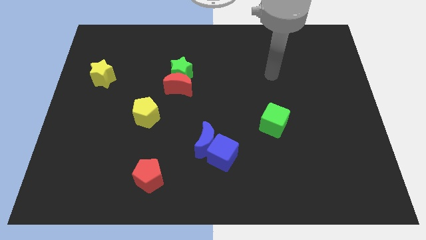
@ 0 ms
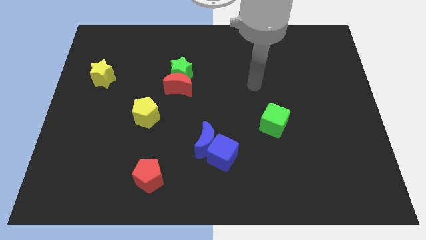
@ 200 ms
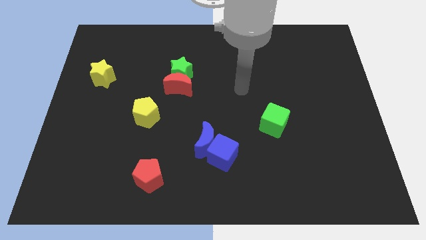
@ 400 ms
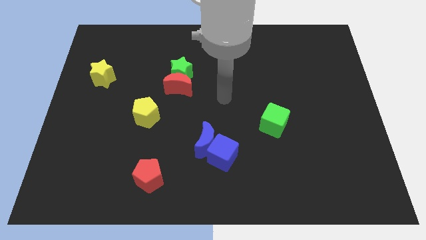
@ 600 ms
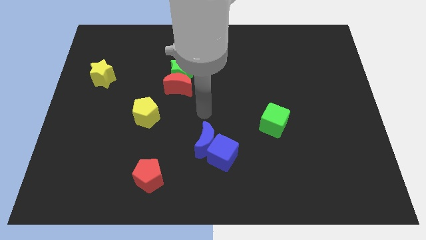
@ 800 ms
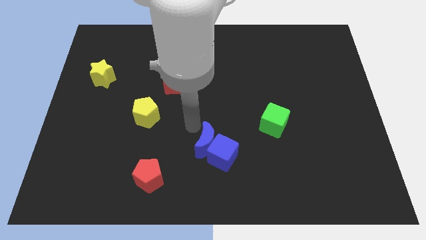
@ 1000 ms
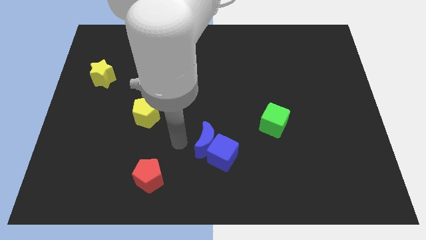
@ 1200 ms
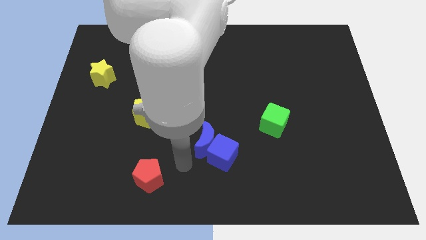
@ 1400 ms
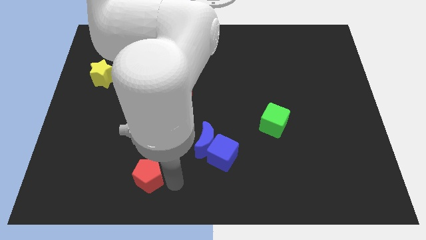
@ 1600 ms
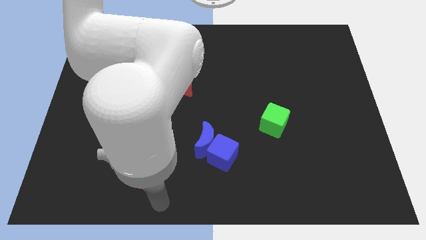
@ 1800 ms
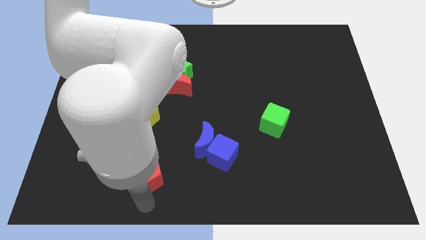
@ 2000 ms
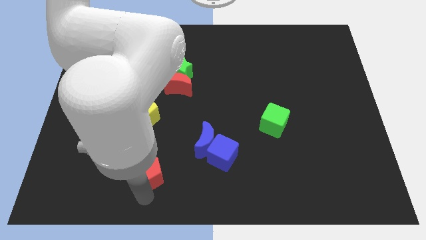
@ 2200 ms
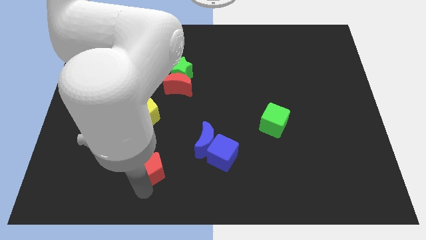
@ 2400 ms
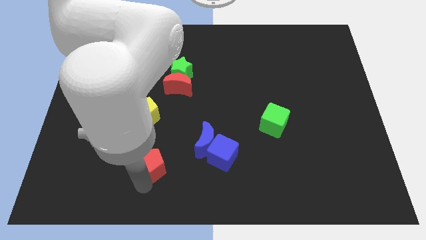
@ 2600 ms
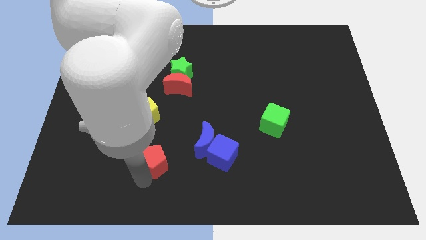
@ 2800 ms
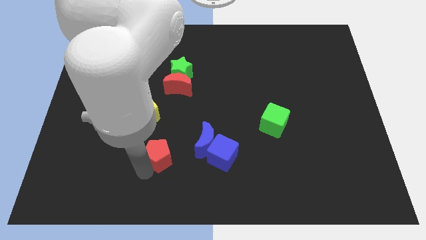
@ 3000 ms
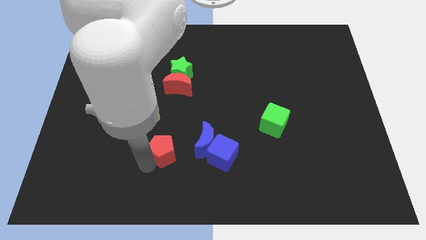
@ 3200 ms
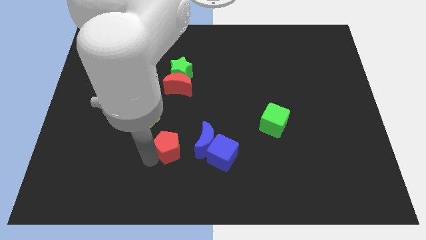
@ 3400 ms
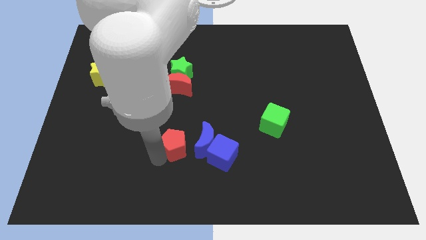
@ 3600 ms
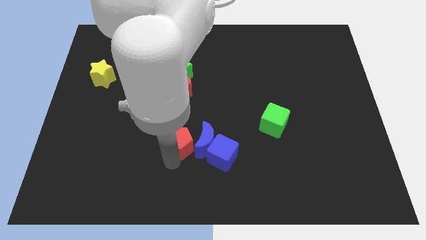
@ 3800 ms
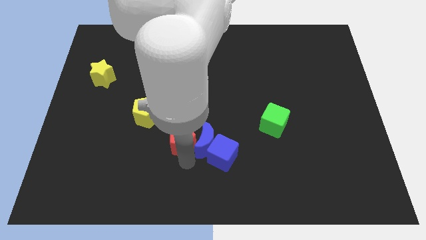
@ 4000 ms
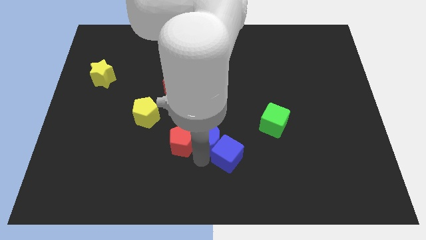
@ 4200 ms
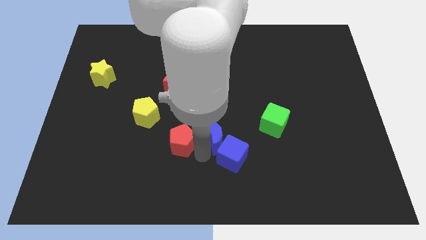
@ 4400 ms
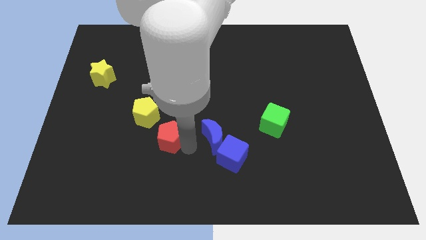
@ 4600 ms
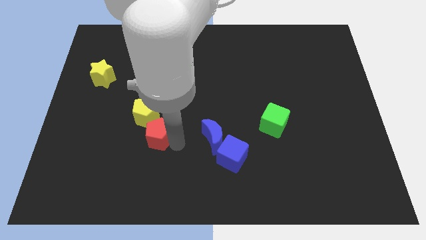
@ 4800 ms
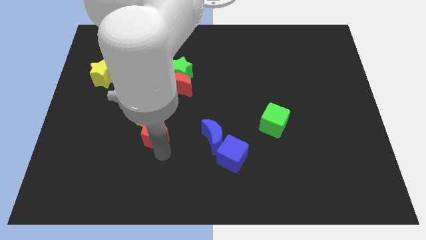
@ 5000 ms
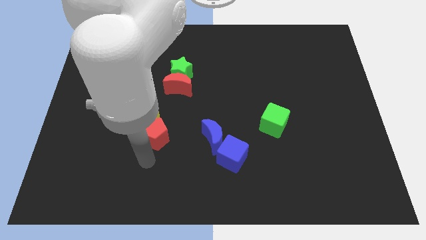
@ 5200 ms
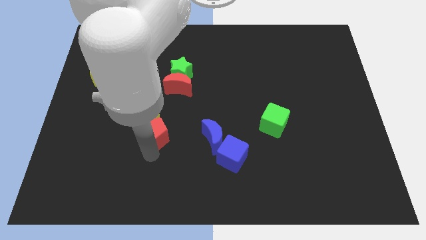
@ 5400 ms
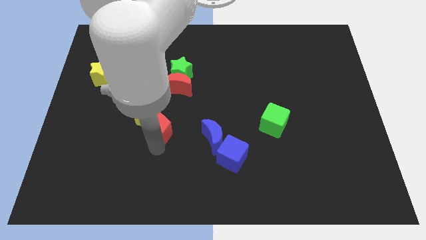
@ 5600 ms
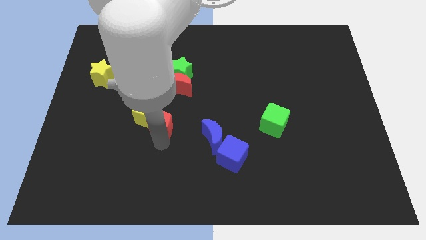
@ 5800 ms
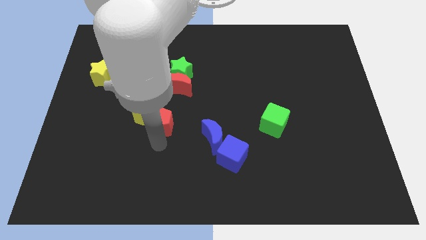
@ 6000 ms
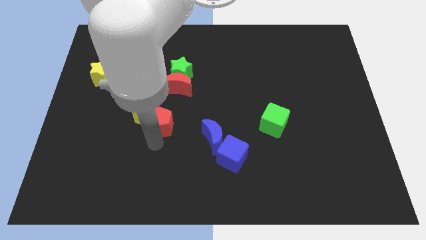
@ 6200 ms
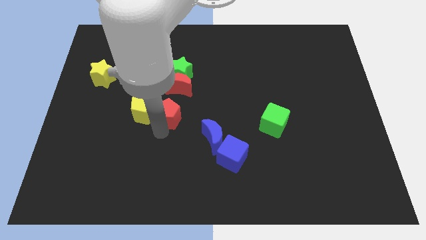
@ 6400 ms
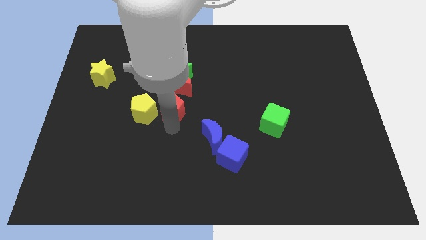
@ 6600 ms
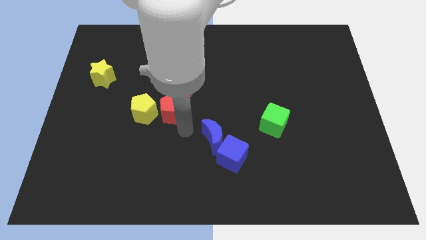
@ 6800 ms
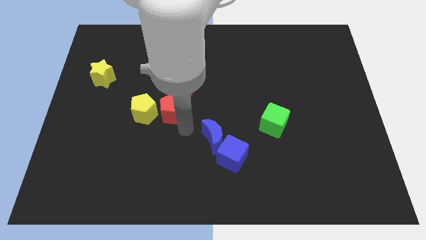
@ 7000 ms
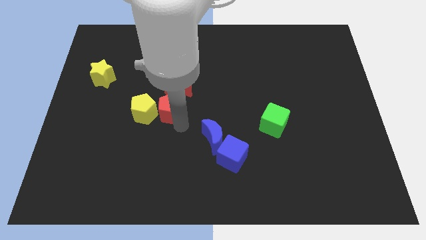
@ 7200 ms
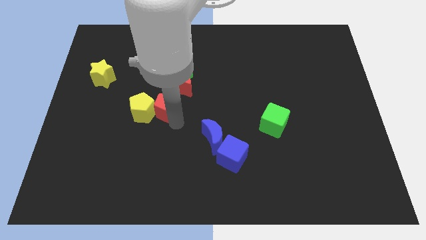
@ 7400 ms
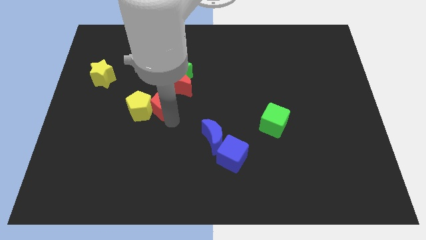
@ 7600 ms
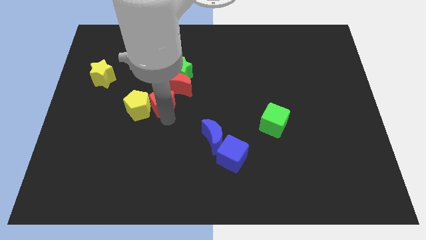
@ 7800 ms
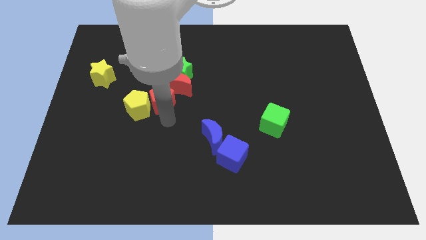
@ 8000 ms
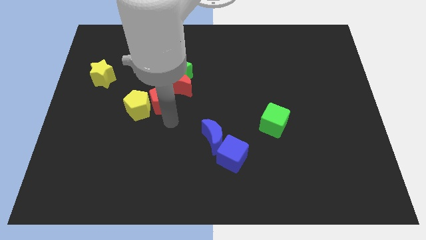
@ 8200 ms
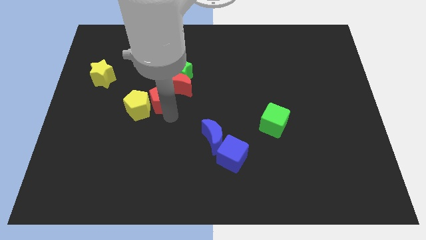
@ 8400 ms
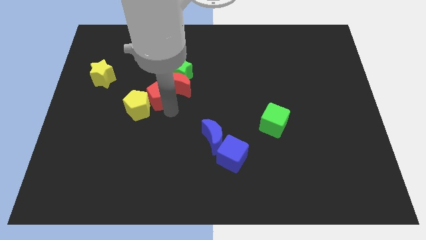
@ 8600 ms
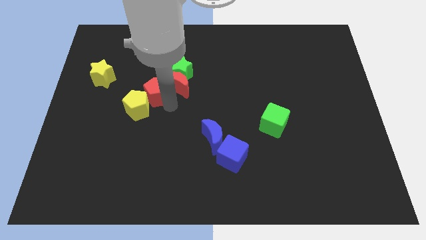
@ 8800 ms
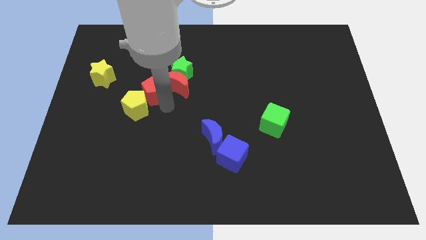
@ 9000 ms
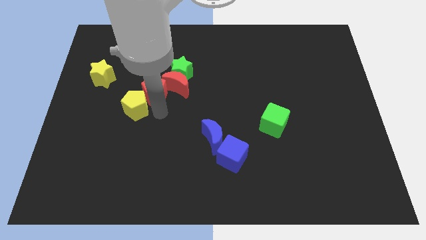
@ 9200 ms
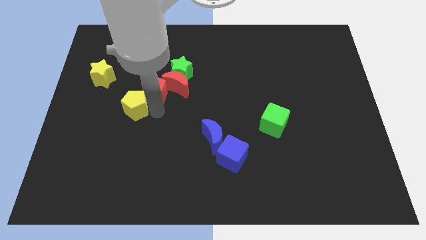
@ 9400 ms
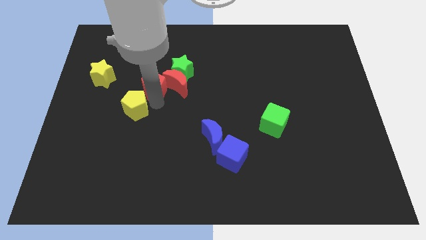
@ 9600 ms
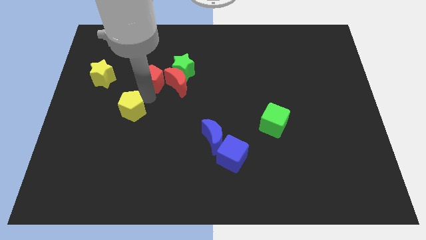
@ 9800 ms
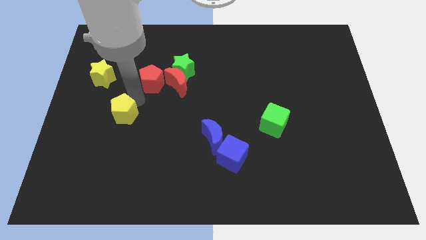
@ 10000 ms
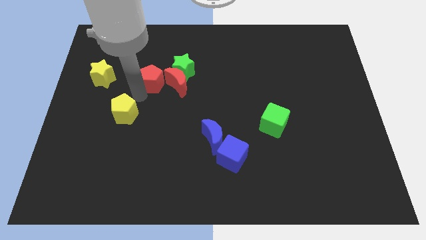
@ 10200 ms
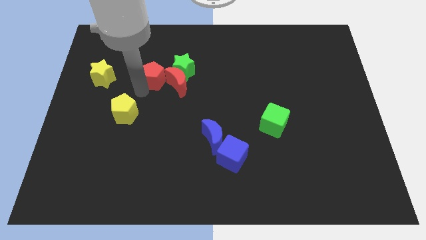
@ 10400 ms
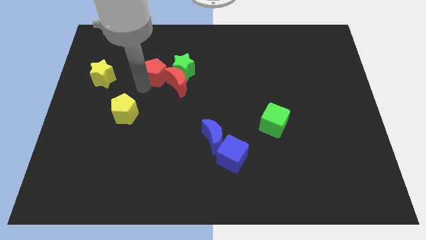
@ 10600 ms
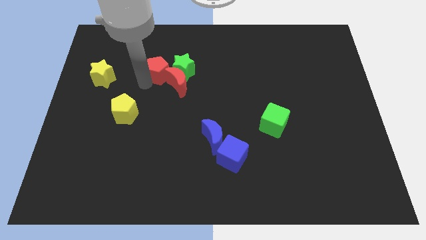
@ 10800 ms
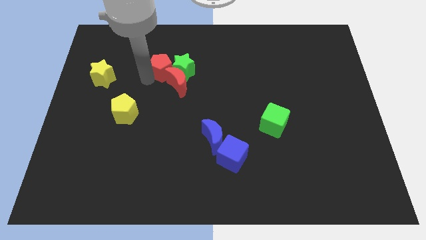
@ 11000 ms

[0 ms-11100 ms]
push the red pentagon above the red moon

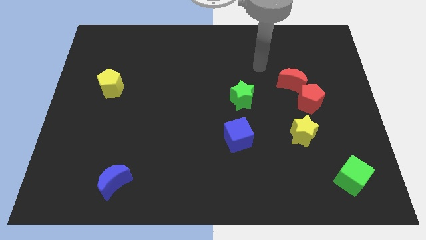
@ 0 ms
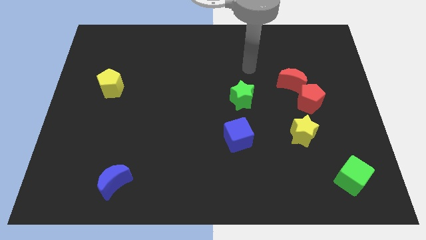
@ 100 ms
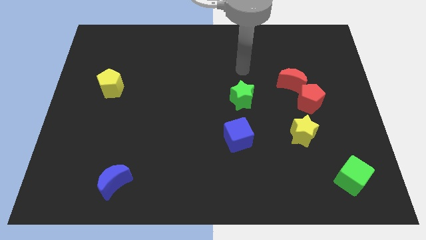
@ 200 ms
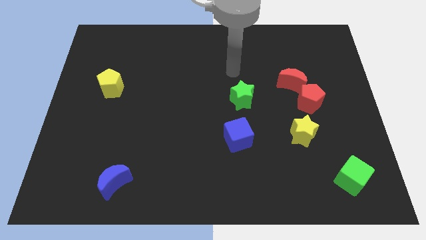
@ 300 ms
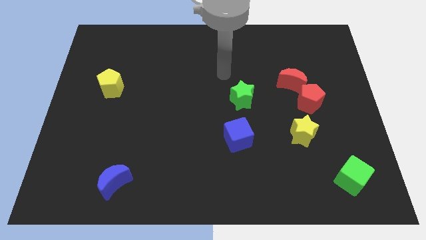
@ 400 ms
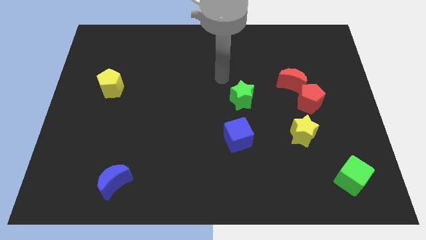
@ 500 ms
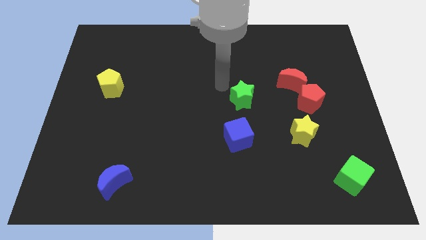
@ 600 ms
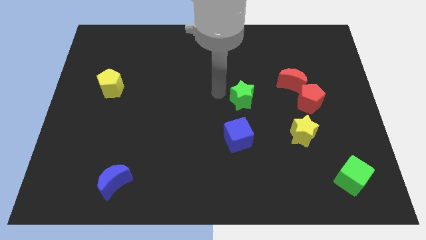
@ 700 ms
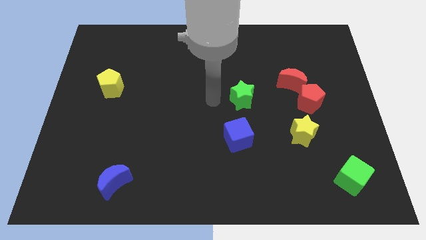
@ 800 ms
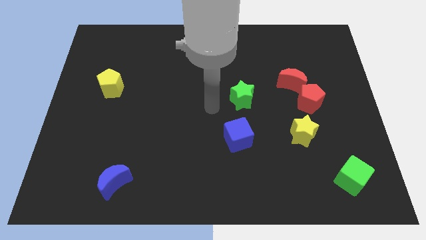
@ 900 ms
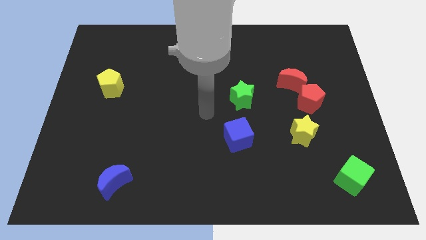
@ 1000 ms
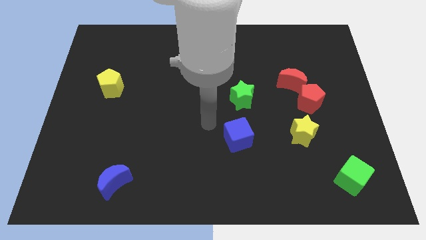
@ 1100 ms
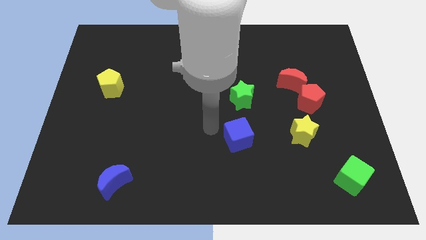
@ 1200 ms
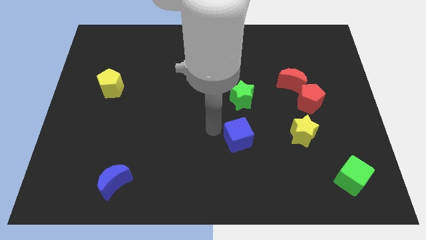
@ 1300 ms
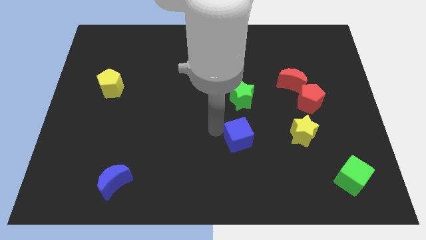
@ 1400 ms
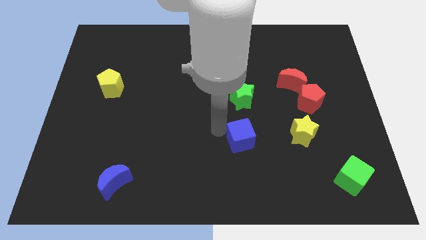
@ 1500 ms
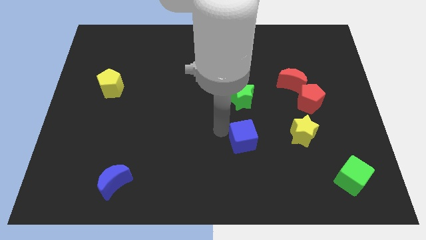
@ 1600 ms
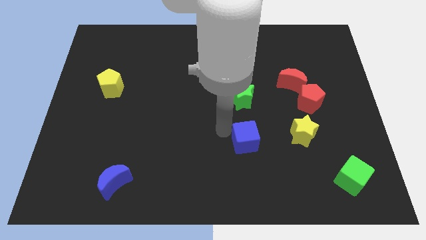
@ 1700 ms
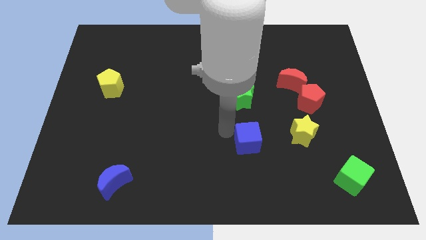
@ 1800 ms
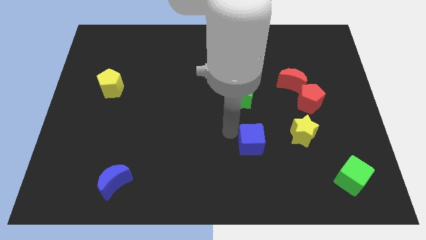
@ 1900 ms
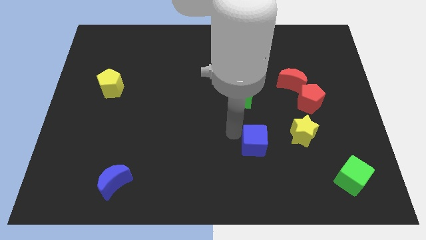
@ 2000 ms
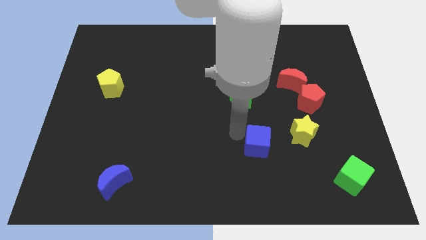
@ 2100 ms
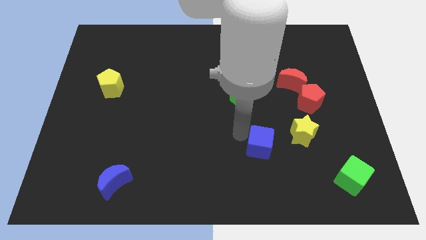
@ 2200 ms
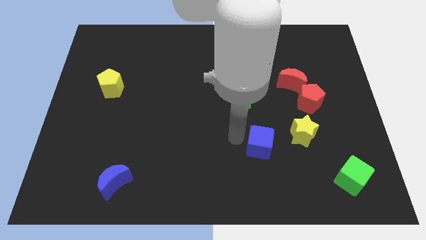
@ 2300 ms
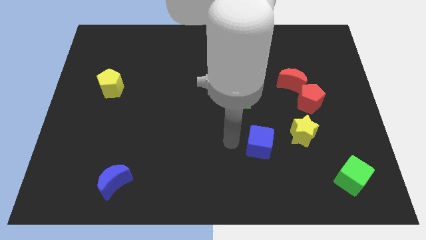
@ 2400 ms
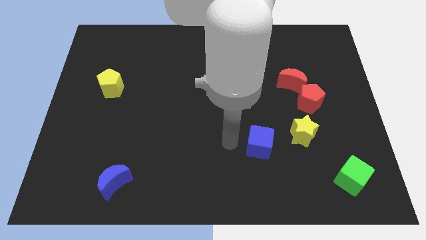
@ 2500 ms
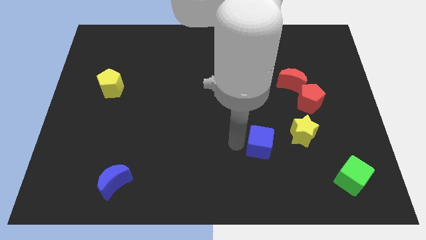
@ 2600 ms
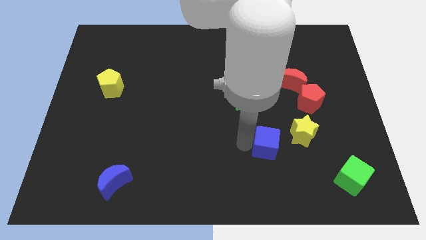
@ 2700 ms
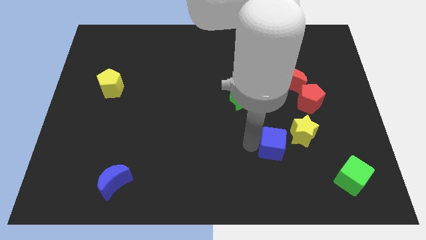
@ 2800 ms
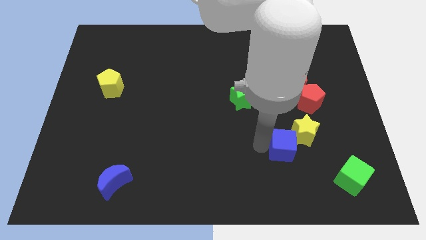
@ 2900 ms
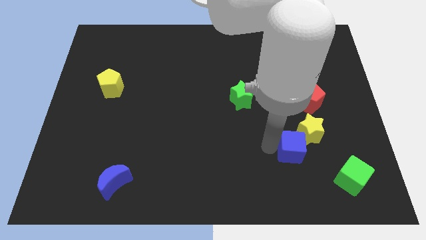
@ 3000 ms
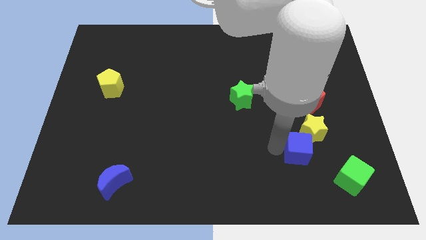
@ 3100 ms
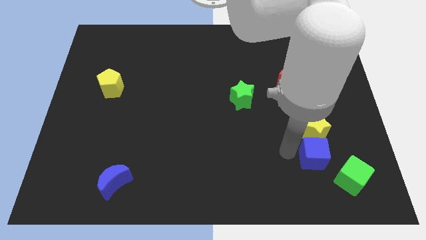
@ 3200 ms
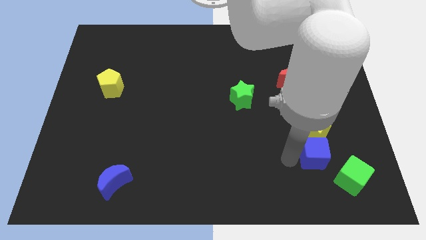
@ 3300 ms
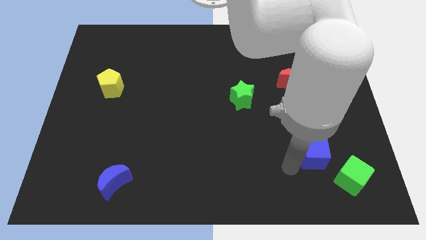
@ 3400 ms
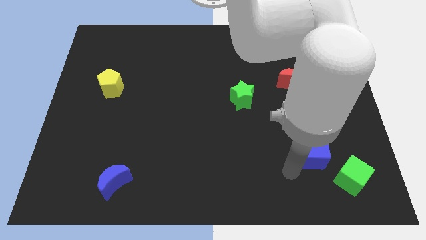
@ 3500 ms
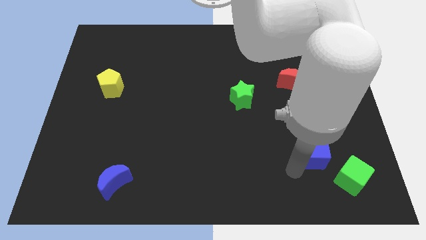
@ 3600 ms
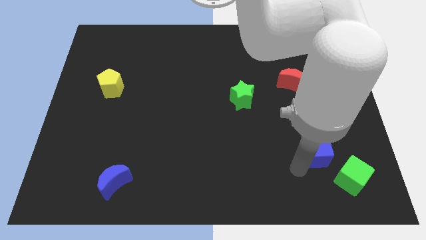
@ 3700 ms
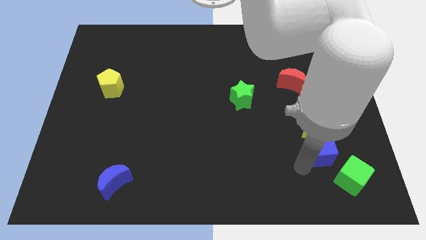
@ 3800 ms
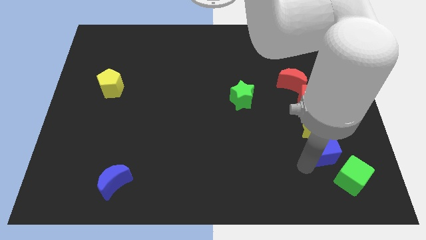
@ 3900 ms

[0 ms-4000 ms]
push the blue cube above the green cube
